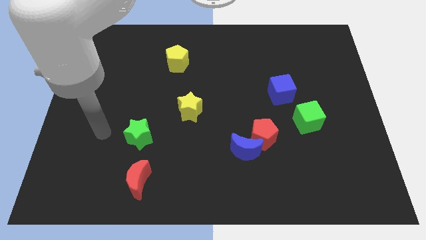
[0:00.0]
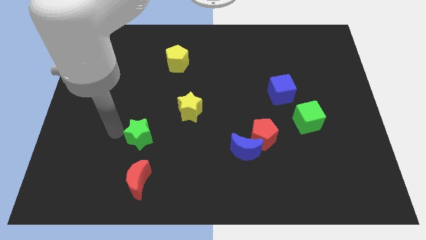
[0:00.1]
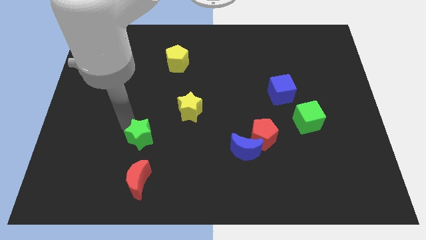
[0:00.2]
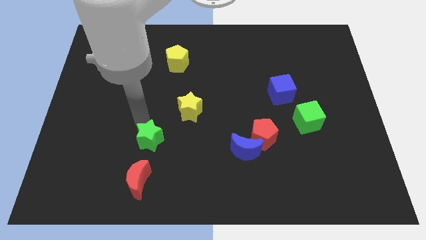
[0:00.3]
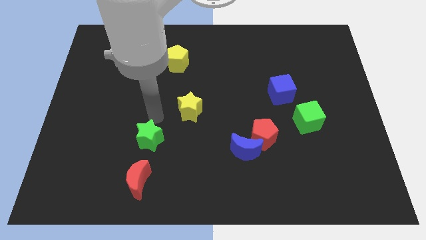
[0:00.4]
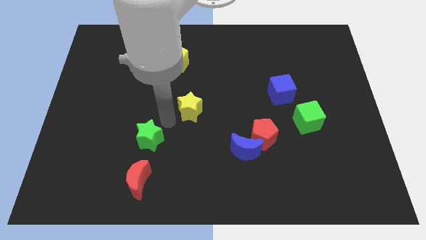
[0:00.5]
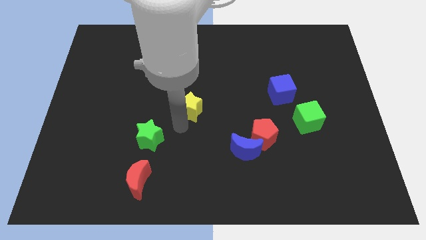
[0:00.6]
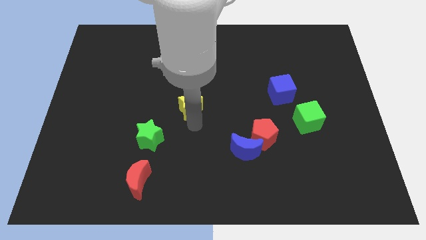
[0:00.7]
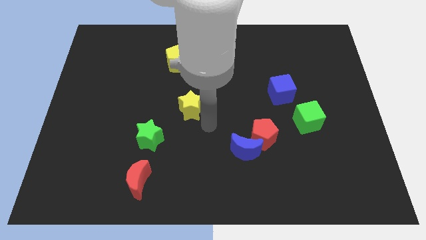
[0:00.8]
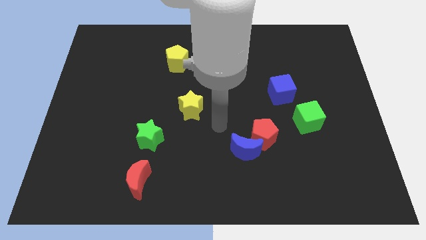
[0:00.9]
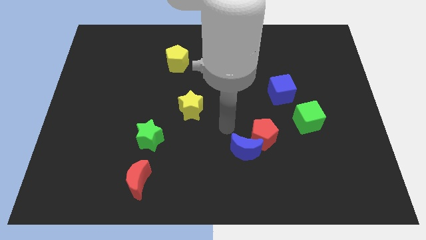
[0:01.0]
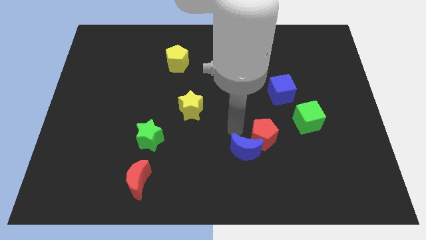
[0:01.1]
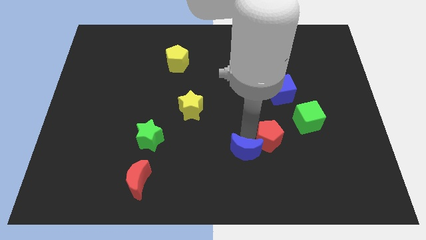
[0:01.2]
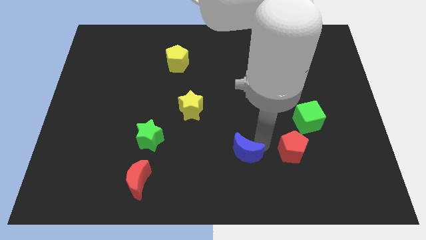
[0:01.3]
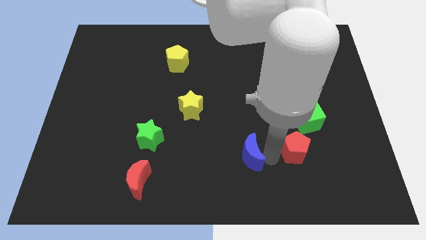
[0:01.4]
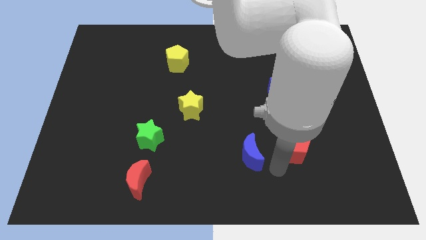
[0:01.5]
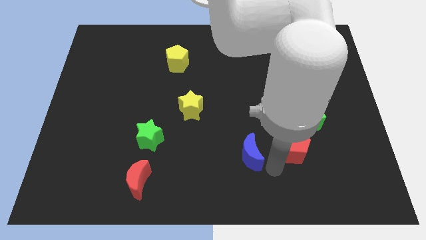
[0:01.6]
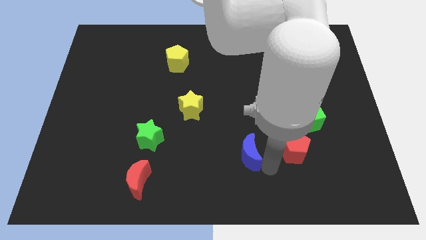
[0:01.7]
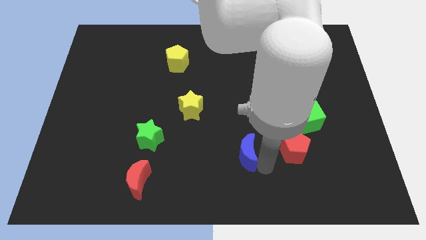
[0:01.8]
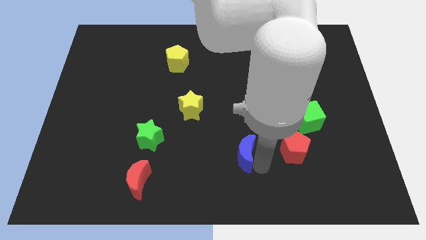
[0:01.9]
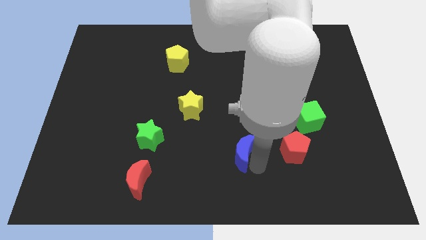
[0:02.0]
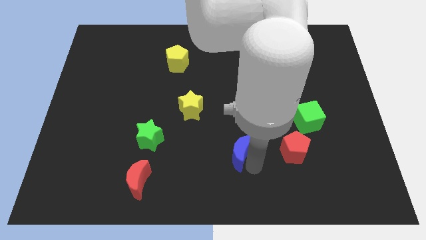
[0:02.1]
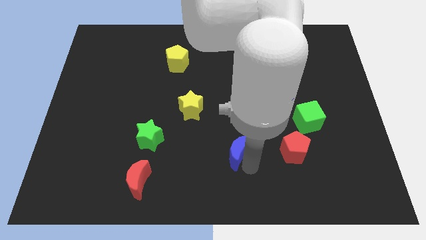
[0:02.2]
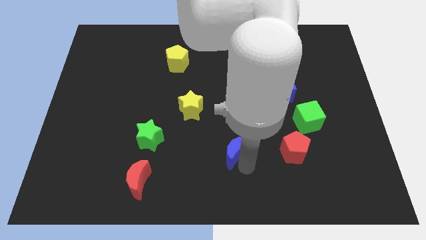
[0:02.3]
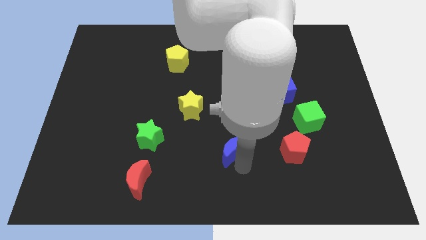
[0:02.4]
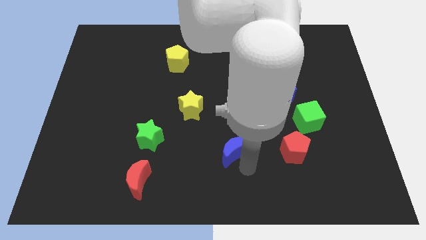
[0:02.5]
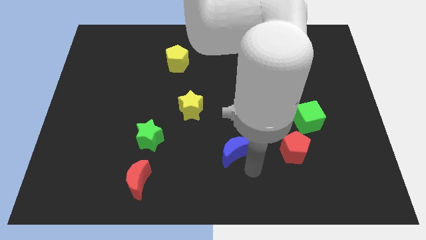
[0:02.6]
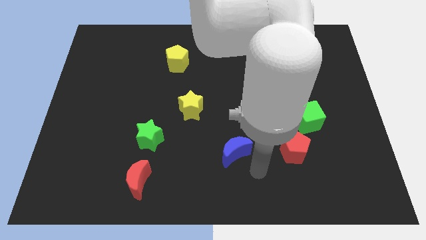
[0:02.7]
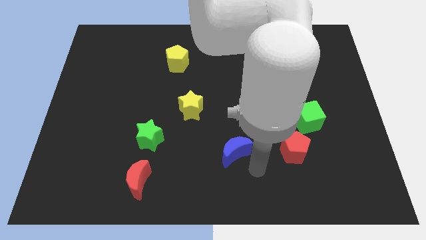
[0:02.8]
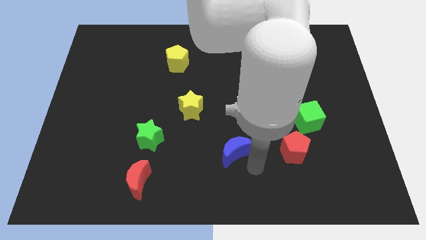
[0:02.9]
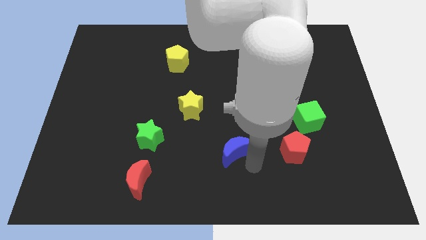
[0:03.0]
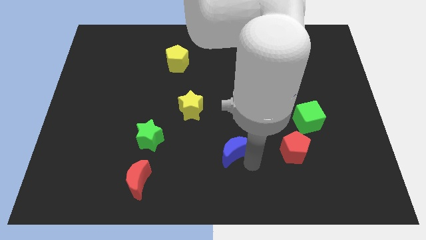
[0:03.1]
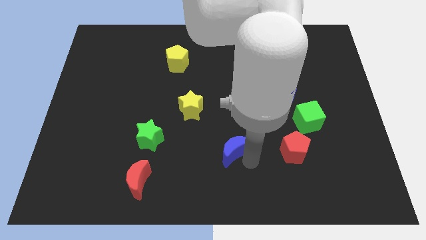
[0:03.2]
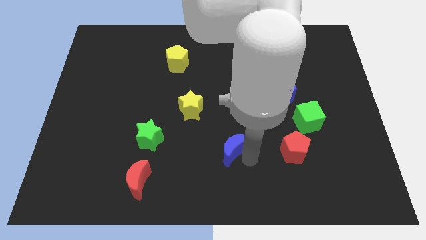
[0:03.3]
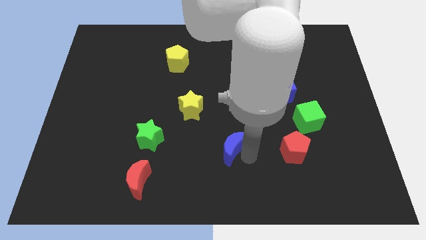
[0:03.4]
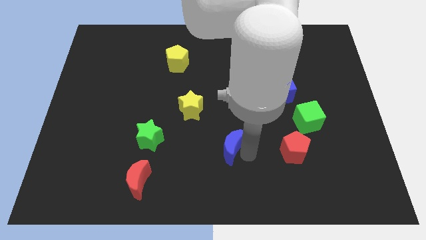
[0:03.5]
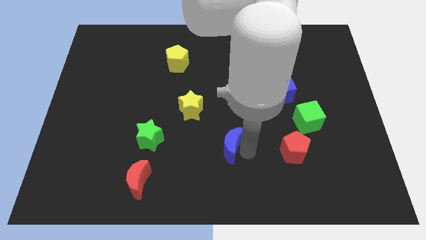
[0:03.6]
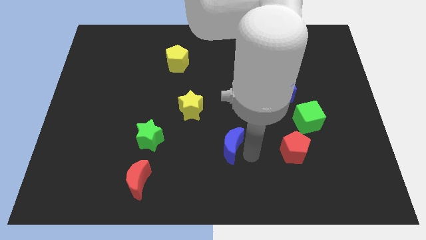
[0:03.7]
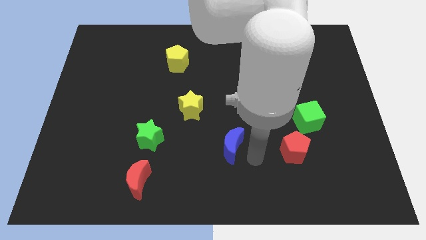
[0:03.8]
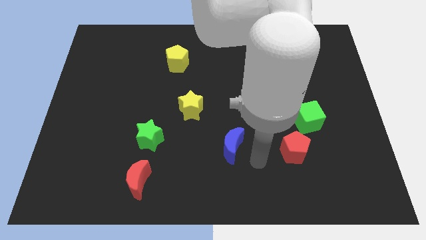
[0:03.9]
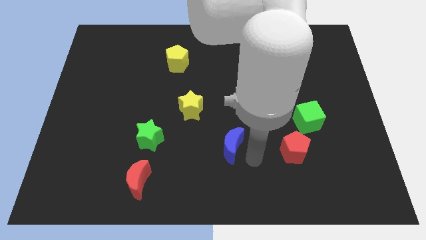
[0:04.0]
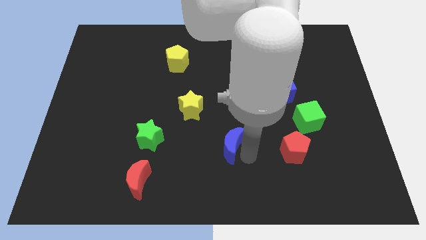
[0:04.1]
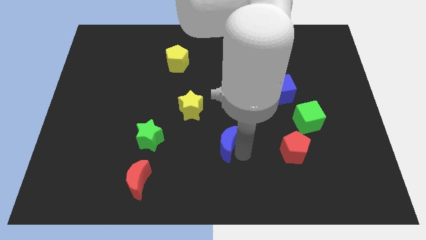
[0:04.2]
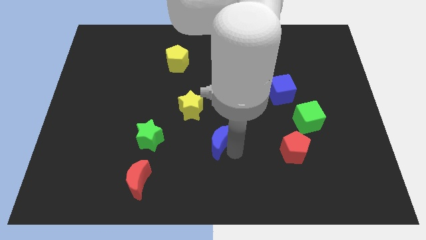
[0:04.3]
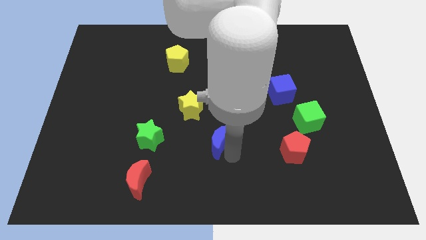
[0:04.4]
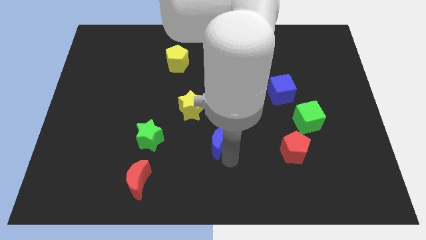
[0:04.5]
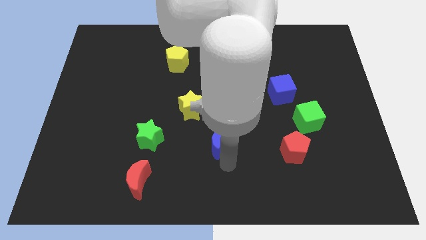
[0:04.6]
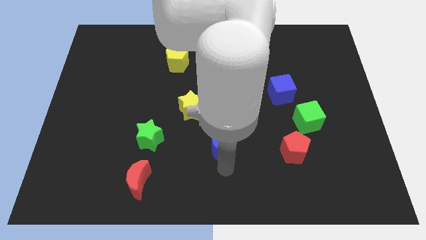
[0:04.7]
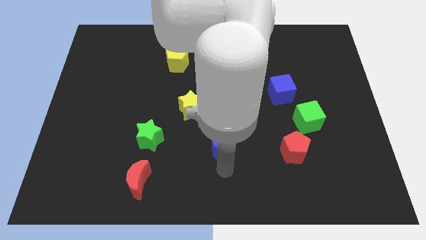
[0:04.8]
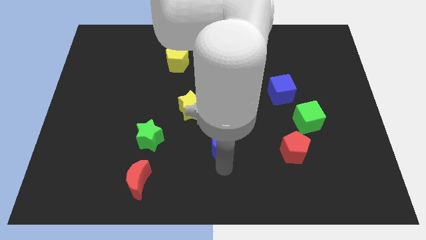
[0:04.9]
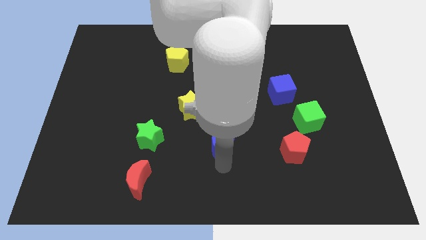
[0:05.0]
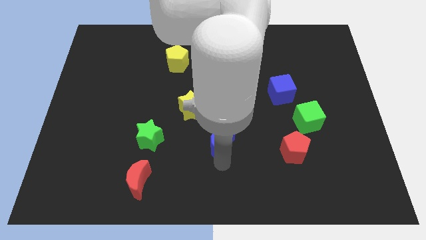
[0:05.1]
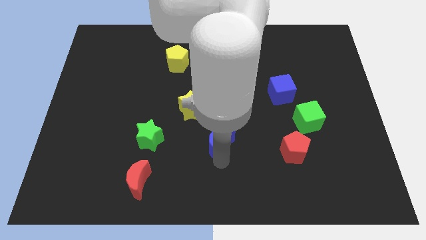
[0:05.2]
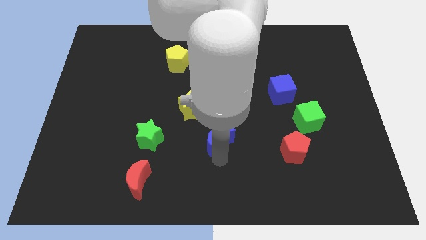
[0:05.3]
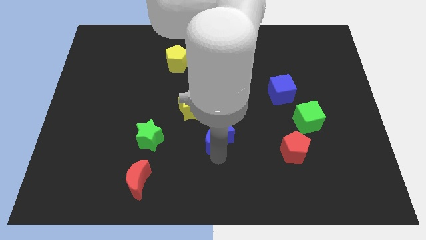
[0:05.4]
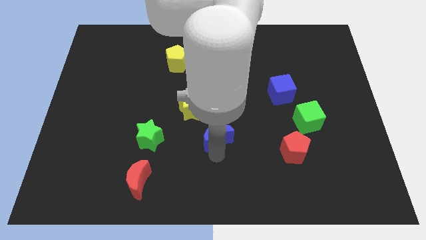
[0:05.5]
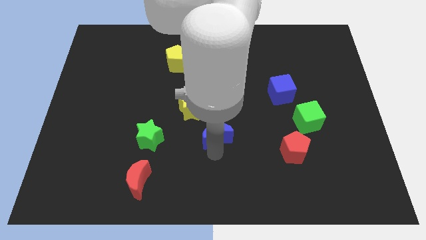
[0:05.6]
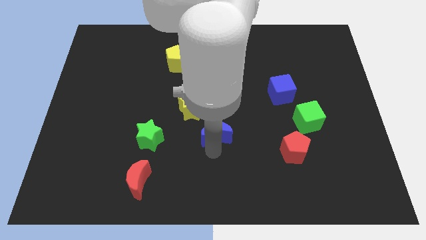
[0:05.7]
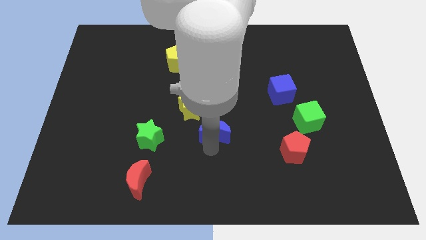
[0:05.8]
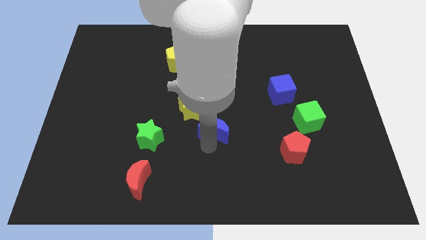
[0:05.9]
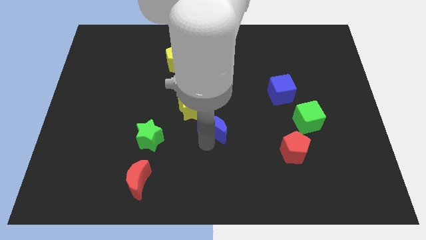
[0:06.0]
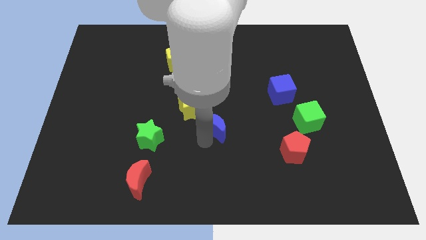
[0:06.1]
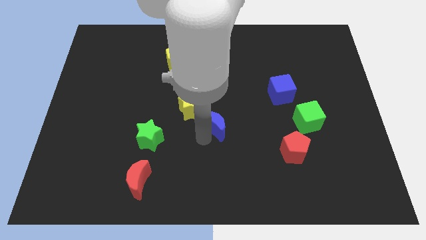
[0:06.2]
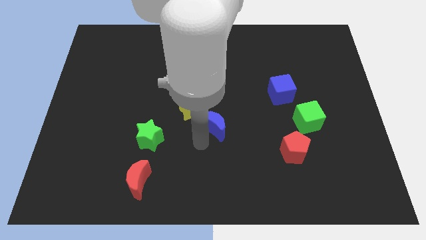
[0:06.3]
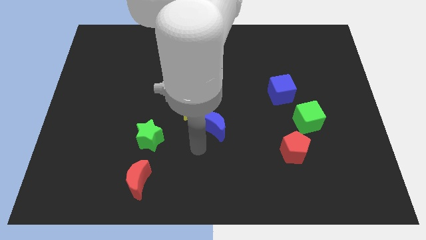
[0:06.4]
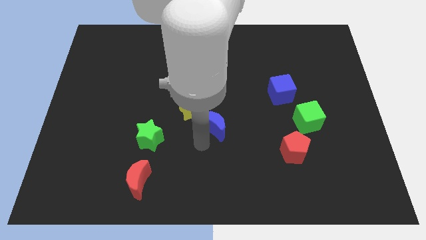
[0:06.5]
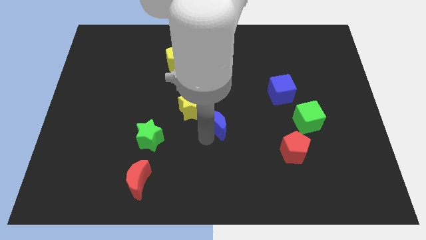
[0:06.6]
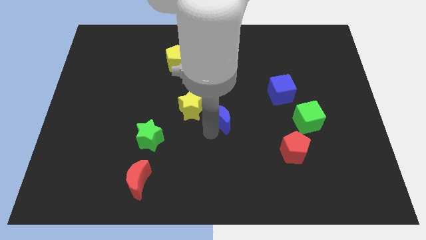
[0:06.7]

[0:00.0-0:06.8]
push the blue moon up a little bit

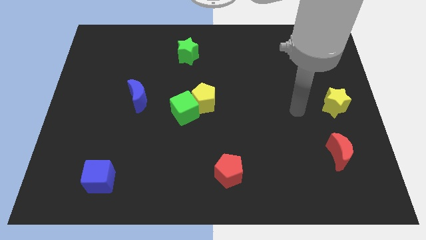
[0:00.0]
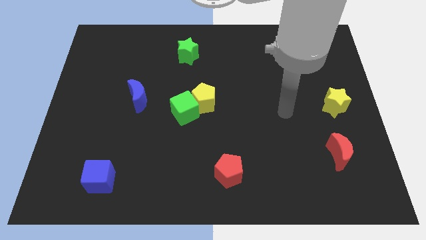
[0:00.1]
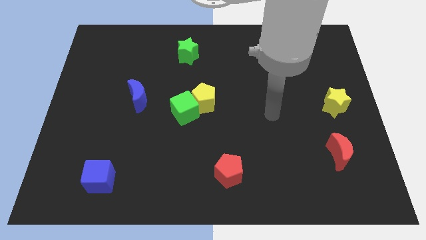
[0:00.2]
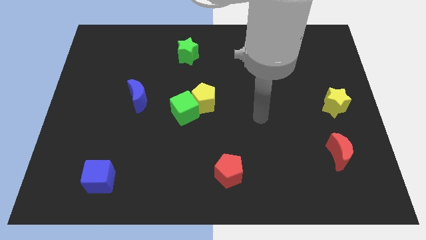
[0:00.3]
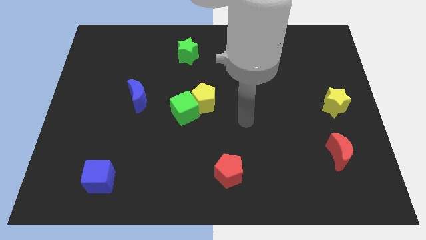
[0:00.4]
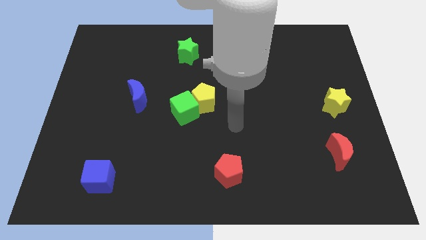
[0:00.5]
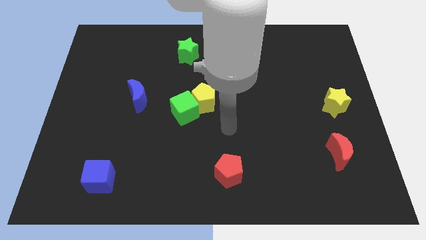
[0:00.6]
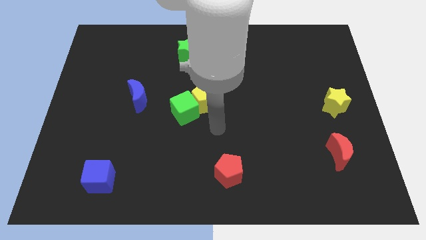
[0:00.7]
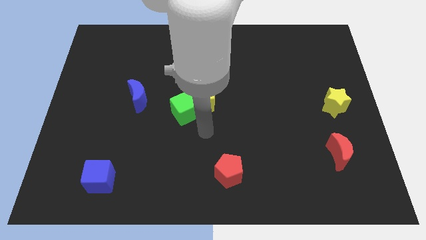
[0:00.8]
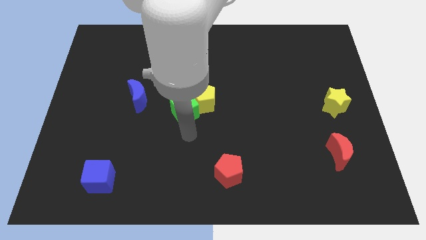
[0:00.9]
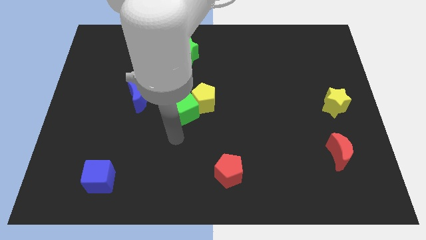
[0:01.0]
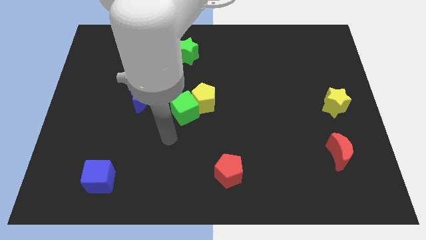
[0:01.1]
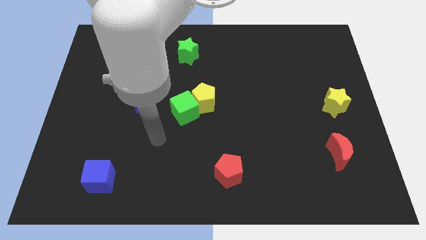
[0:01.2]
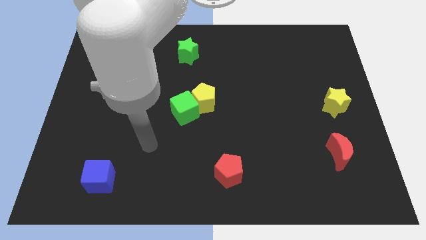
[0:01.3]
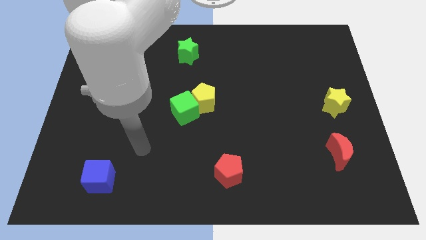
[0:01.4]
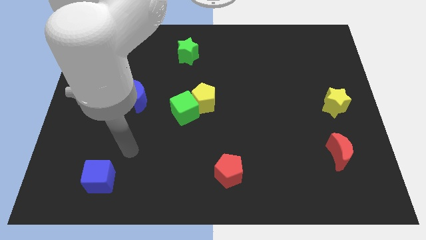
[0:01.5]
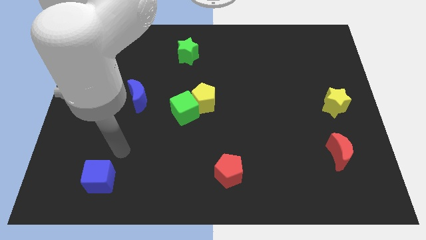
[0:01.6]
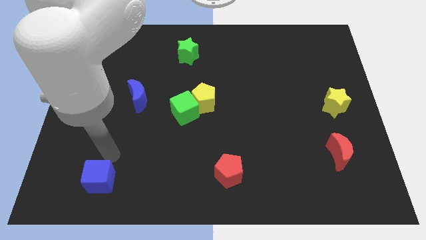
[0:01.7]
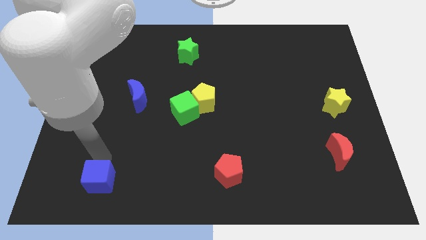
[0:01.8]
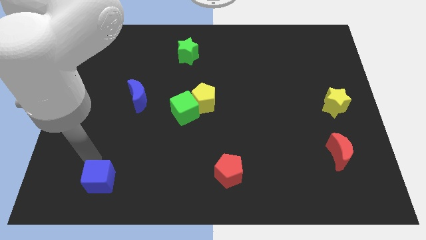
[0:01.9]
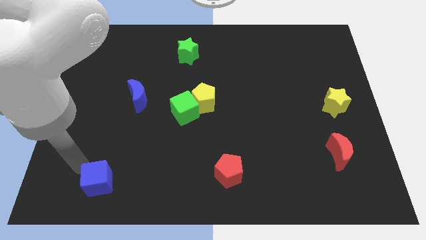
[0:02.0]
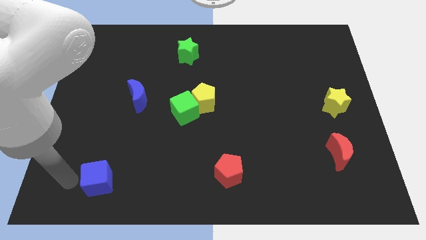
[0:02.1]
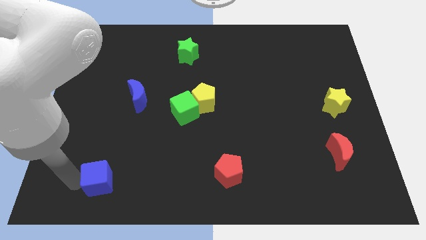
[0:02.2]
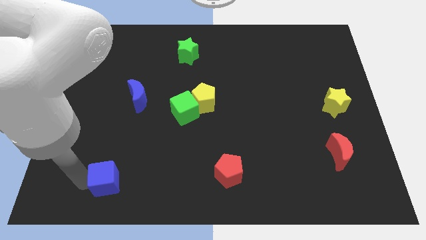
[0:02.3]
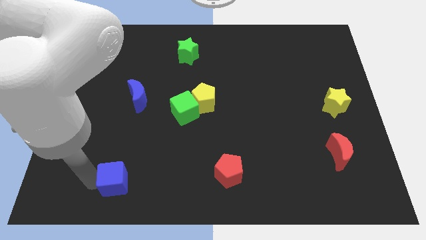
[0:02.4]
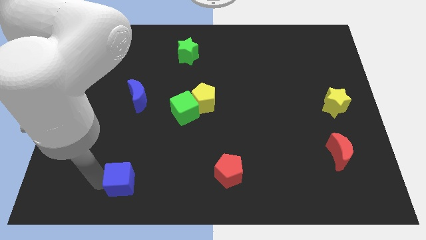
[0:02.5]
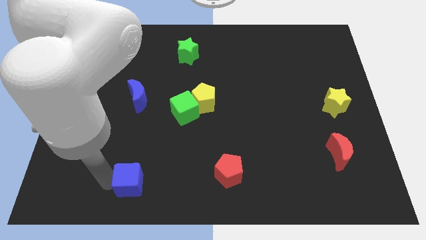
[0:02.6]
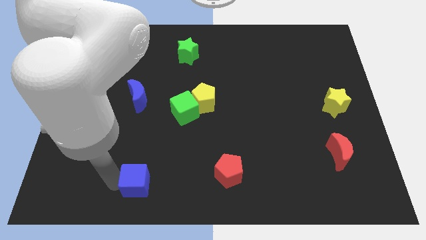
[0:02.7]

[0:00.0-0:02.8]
slide the blue cube a little bit right
